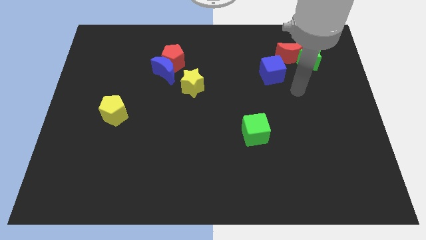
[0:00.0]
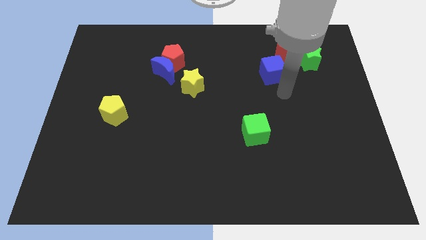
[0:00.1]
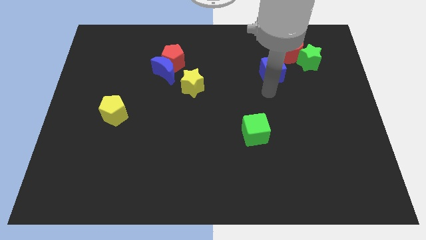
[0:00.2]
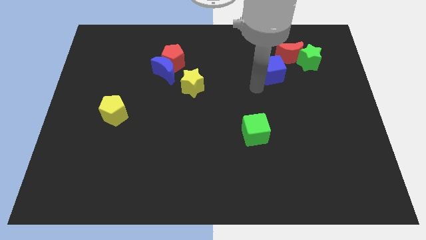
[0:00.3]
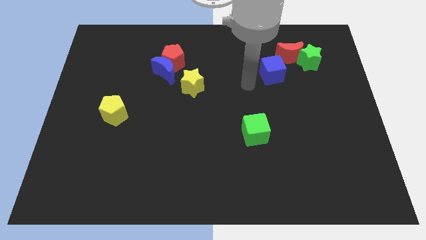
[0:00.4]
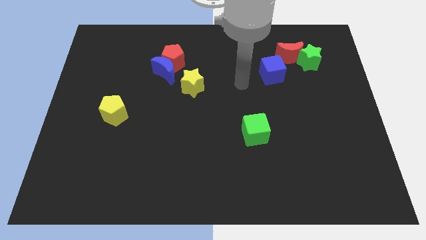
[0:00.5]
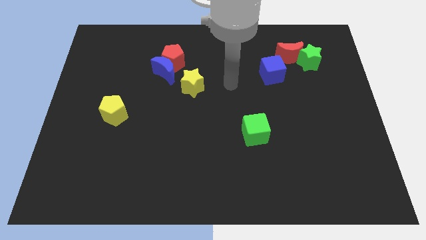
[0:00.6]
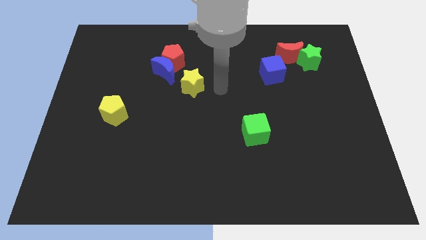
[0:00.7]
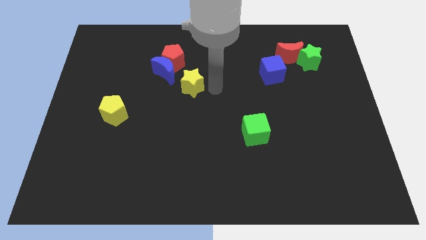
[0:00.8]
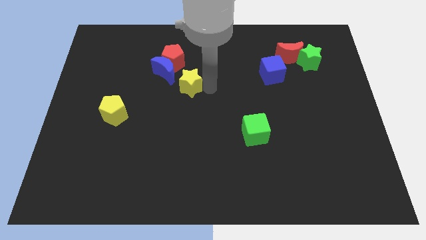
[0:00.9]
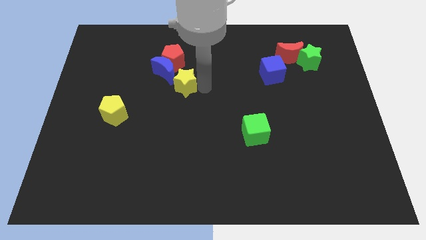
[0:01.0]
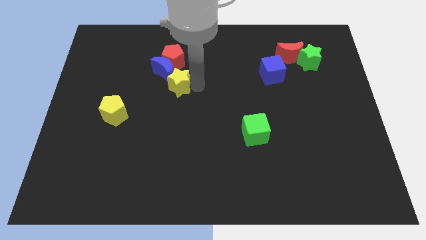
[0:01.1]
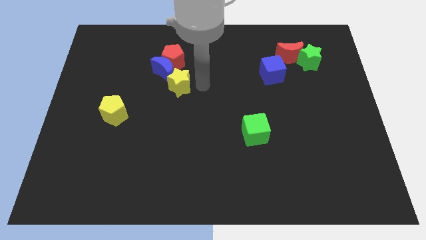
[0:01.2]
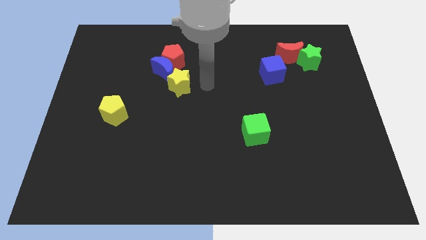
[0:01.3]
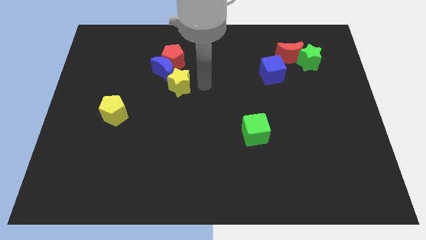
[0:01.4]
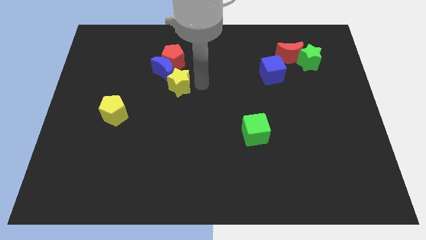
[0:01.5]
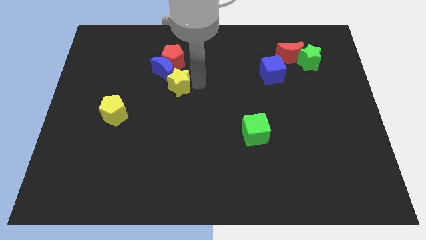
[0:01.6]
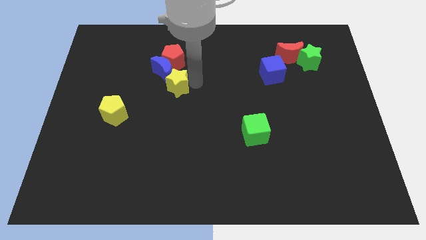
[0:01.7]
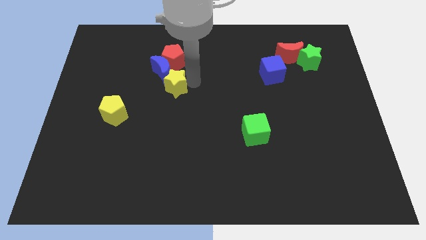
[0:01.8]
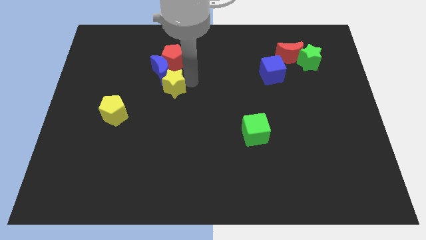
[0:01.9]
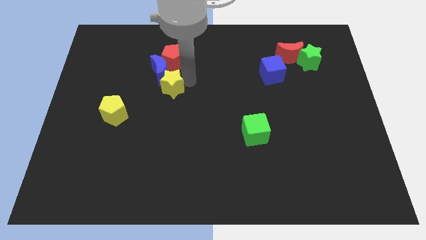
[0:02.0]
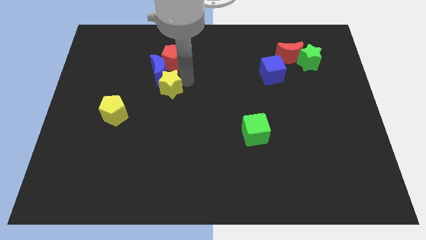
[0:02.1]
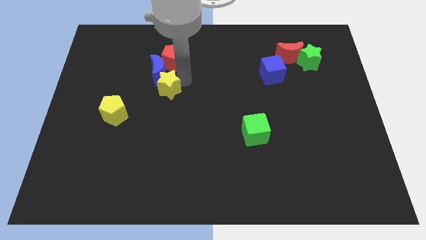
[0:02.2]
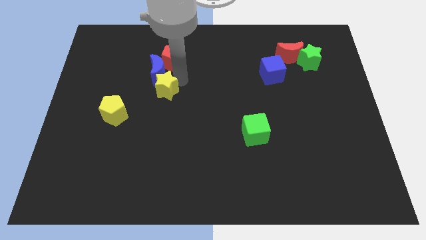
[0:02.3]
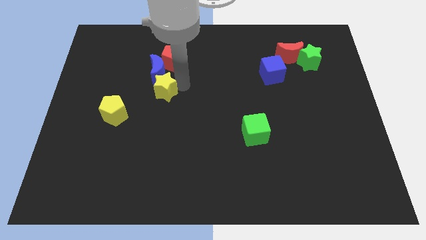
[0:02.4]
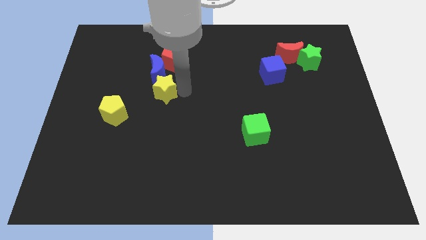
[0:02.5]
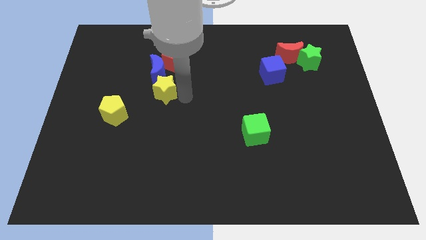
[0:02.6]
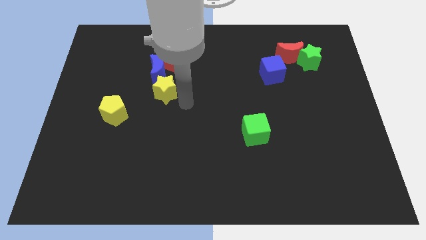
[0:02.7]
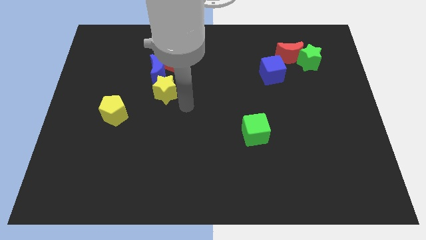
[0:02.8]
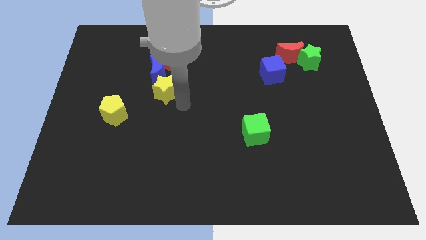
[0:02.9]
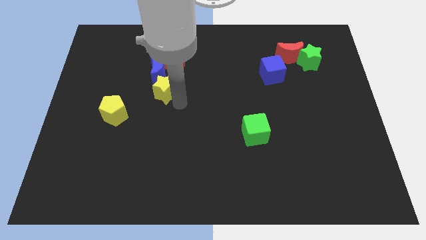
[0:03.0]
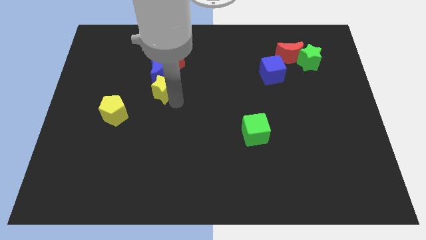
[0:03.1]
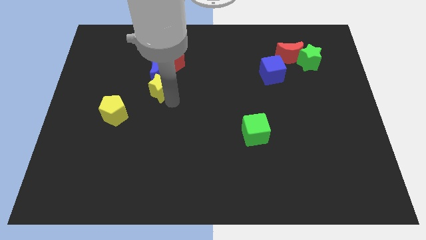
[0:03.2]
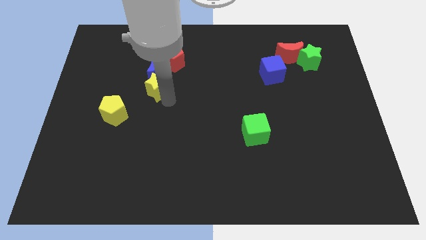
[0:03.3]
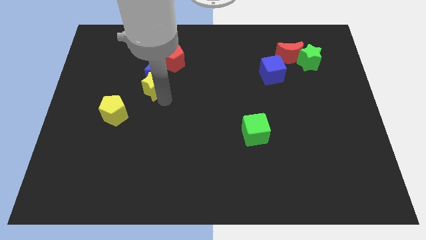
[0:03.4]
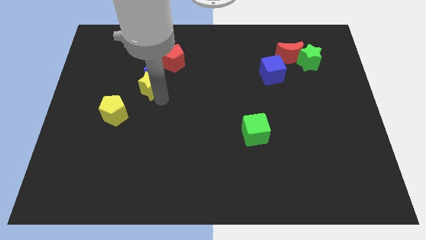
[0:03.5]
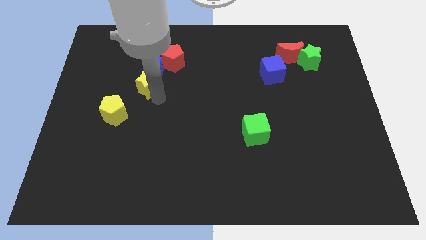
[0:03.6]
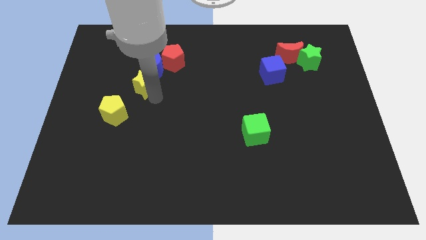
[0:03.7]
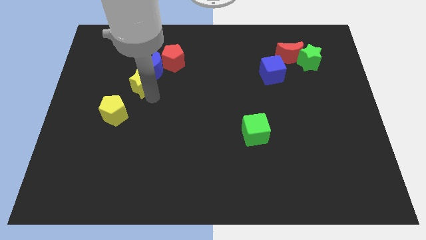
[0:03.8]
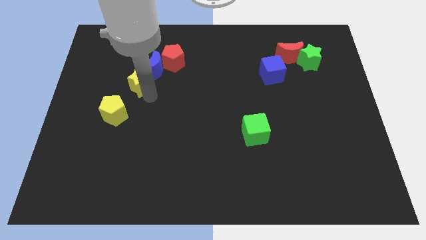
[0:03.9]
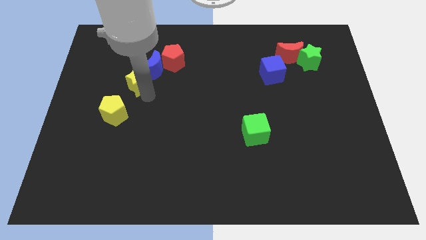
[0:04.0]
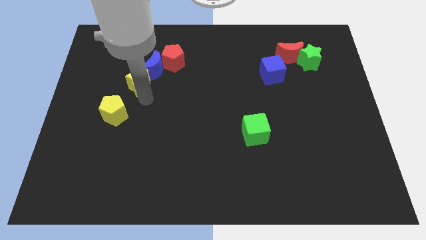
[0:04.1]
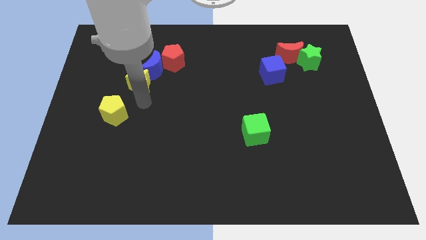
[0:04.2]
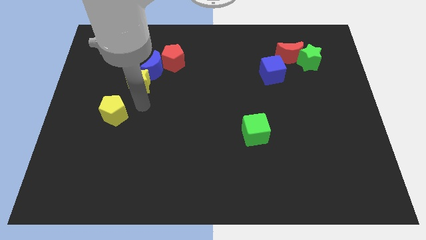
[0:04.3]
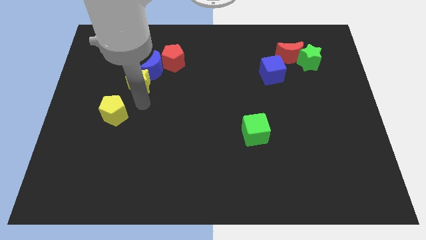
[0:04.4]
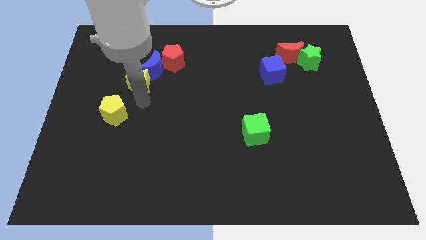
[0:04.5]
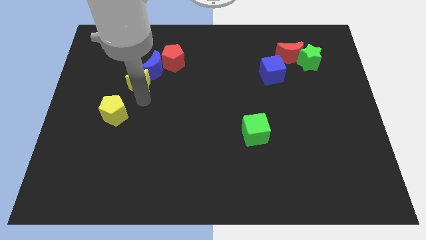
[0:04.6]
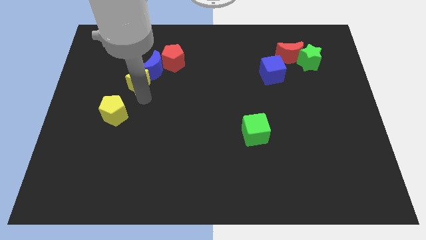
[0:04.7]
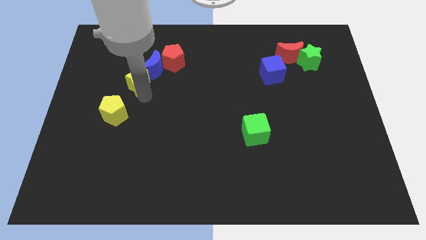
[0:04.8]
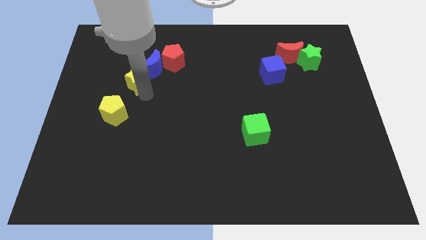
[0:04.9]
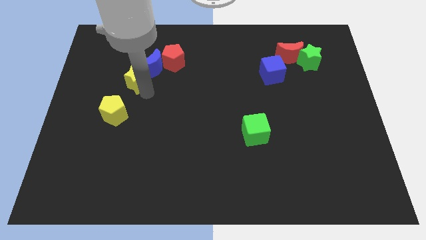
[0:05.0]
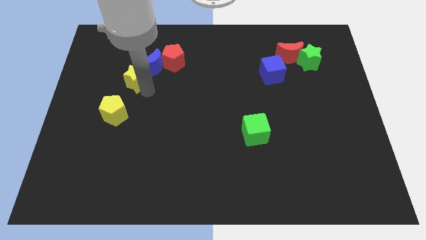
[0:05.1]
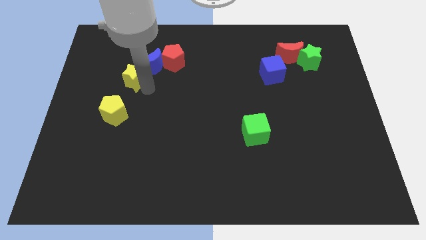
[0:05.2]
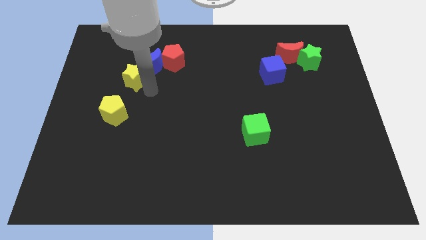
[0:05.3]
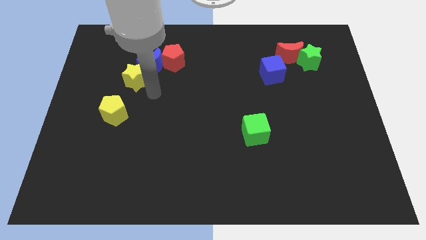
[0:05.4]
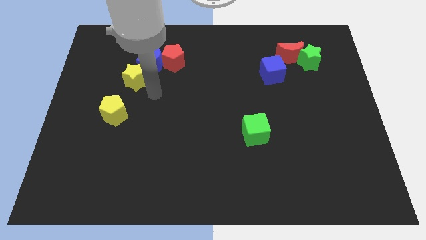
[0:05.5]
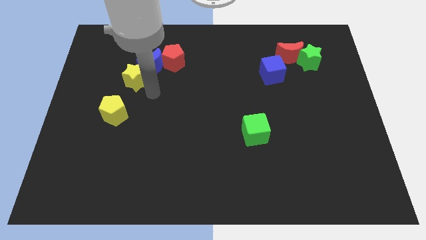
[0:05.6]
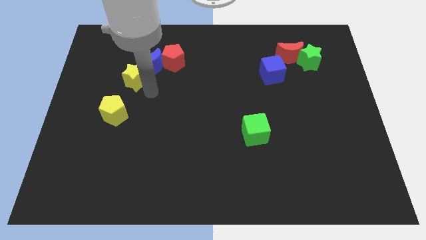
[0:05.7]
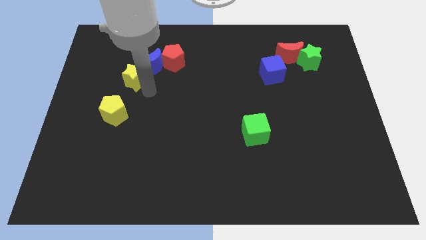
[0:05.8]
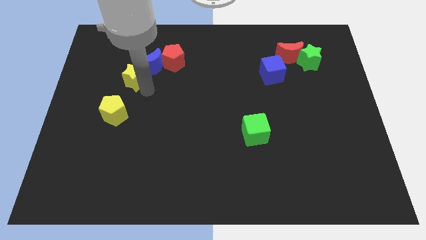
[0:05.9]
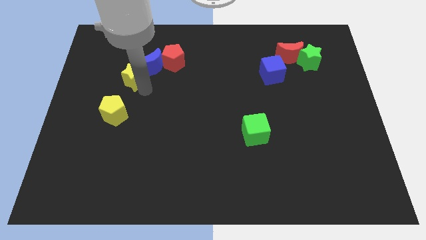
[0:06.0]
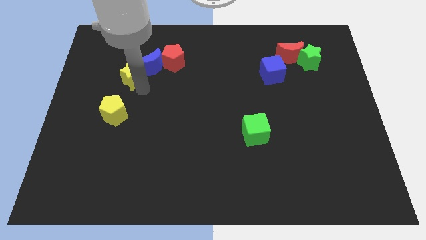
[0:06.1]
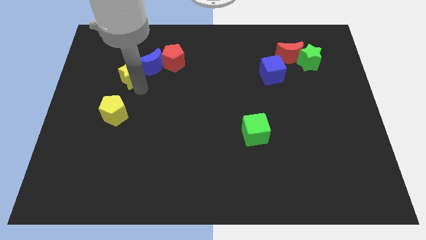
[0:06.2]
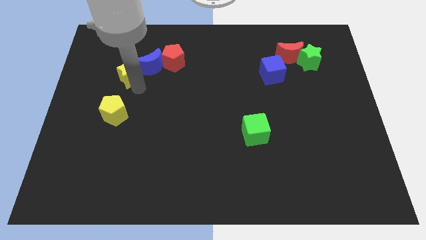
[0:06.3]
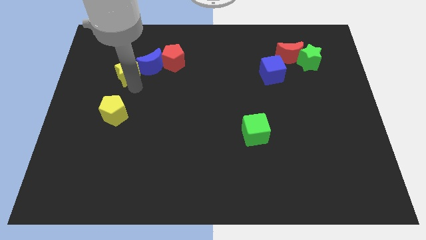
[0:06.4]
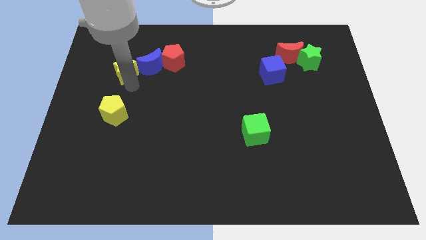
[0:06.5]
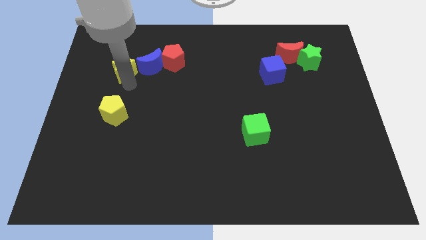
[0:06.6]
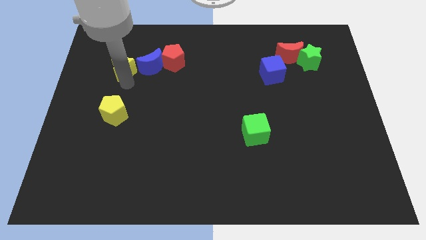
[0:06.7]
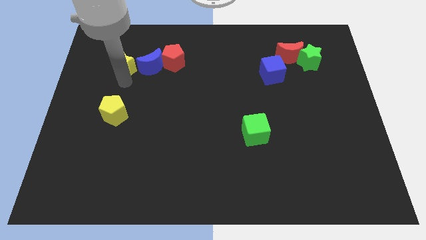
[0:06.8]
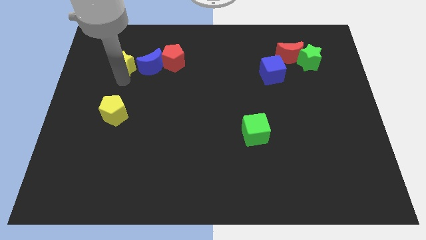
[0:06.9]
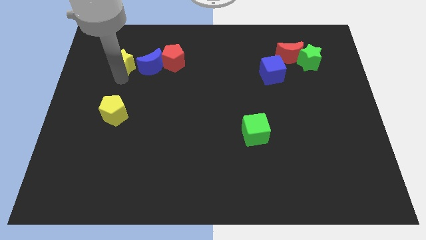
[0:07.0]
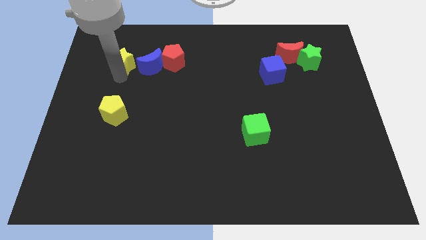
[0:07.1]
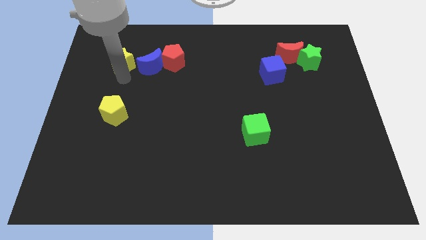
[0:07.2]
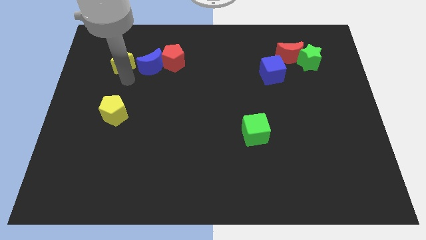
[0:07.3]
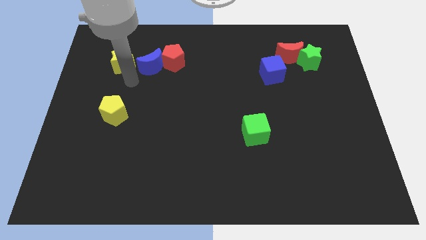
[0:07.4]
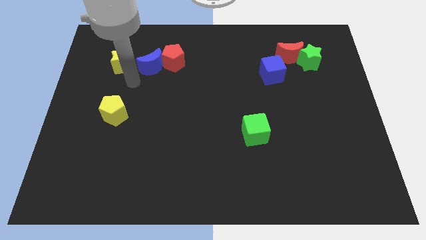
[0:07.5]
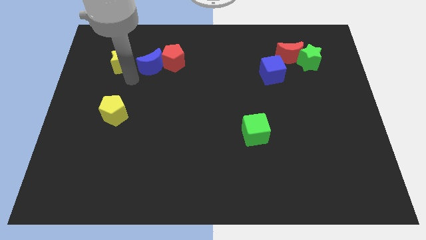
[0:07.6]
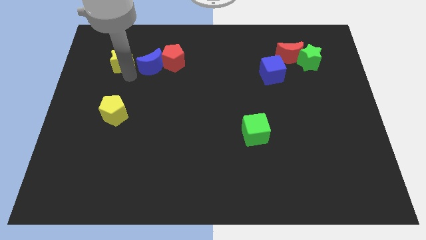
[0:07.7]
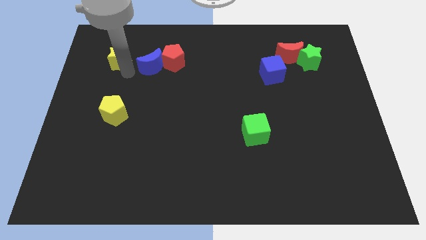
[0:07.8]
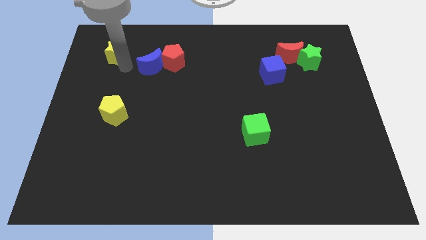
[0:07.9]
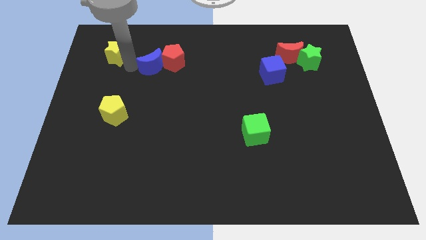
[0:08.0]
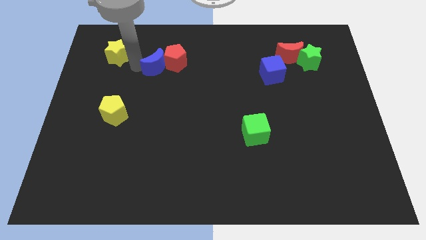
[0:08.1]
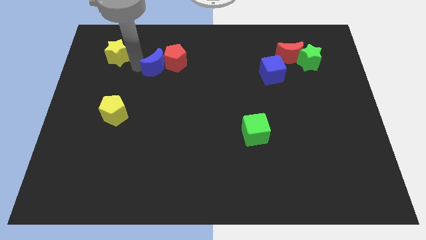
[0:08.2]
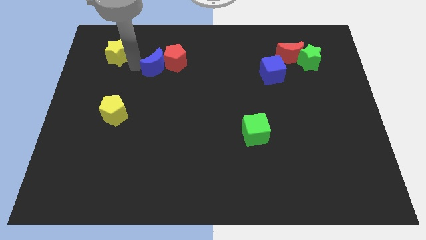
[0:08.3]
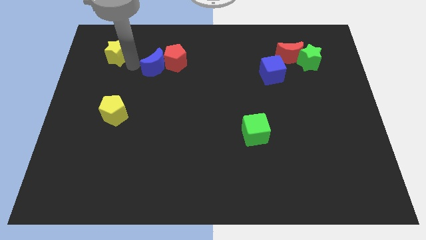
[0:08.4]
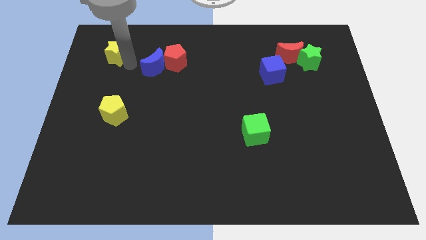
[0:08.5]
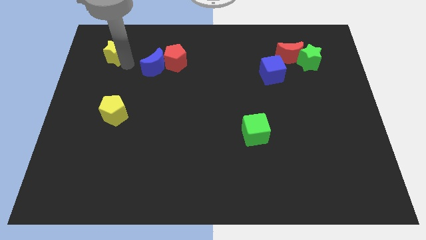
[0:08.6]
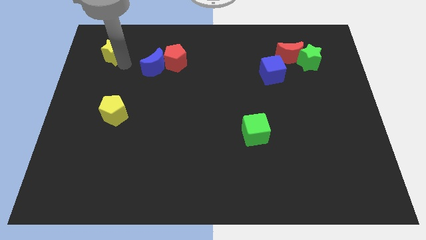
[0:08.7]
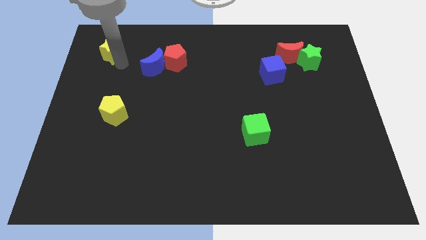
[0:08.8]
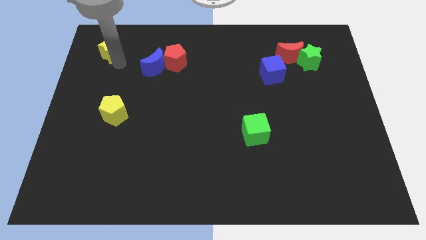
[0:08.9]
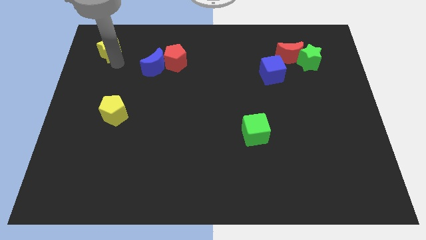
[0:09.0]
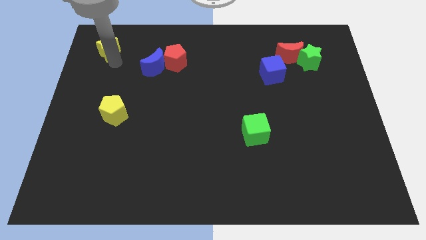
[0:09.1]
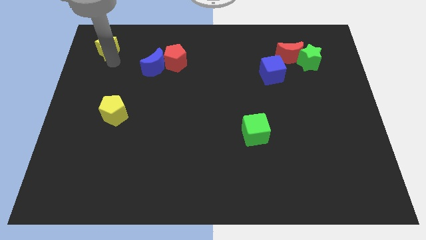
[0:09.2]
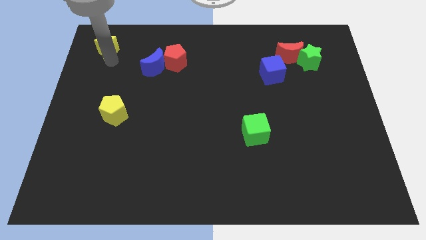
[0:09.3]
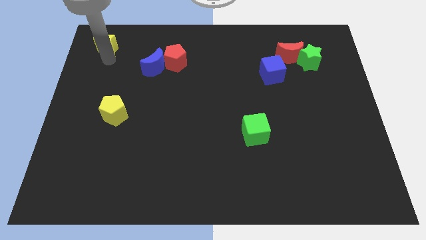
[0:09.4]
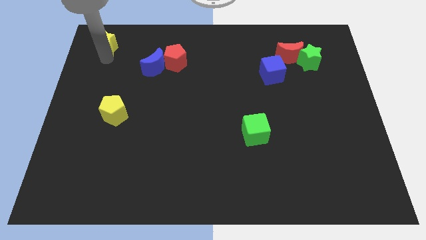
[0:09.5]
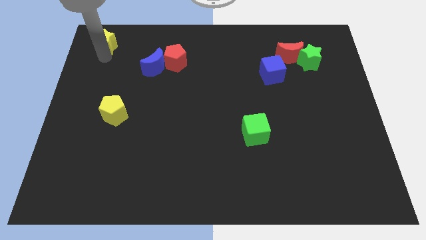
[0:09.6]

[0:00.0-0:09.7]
push the yellow star to the upper left corner
